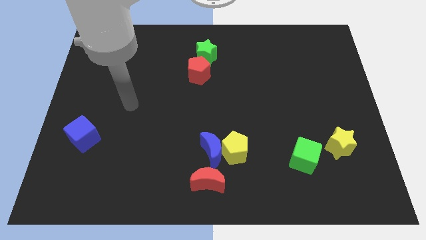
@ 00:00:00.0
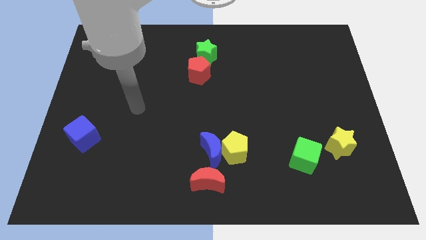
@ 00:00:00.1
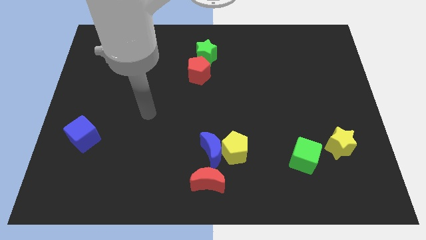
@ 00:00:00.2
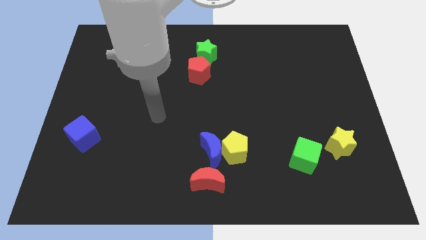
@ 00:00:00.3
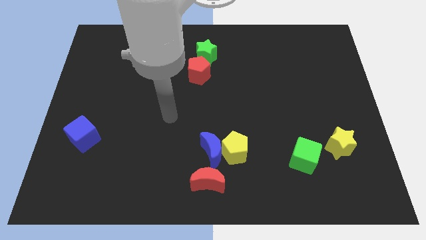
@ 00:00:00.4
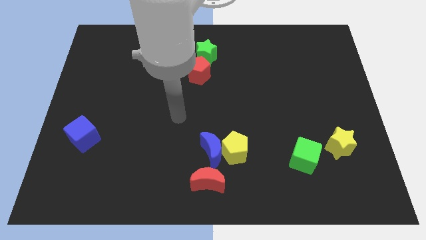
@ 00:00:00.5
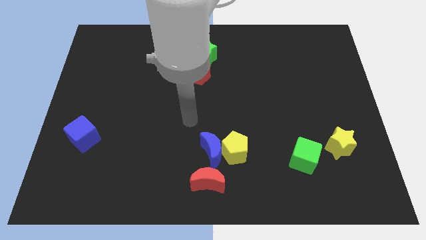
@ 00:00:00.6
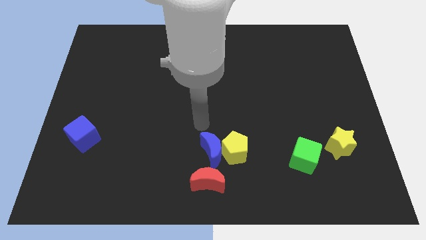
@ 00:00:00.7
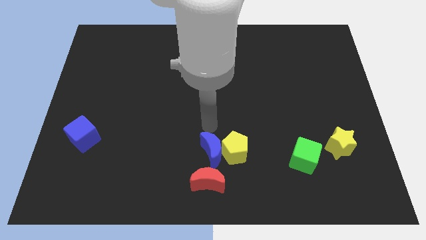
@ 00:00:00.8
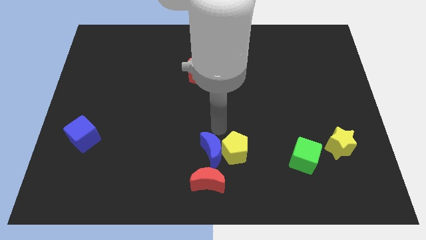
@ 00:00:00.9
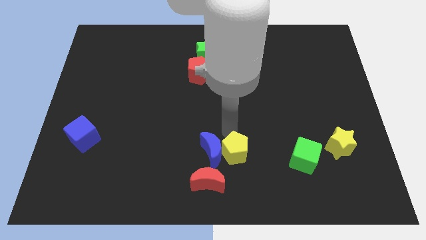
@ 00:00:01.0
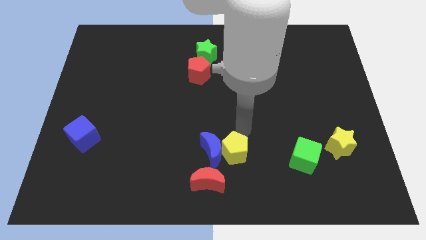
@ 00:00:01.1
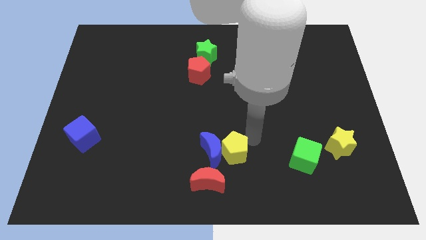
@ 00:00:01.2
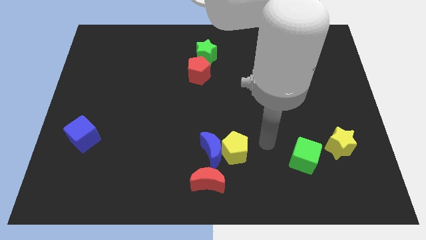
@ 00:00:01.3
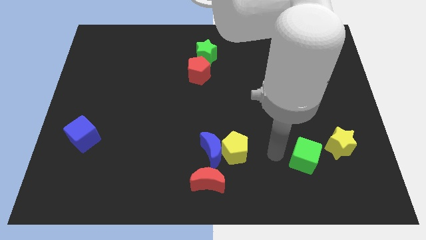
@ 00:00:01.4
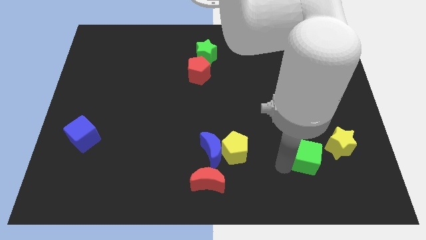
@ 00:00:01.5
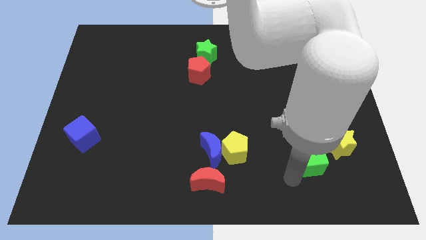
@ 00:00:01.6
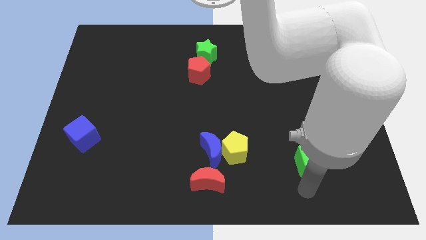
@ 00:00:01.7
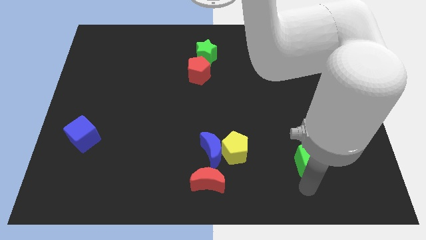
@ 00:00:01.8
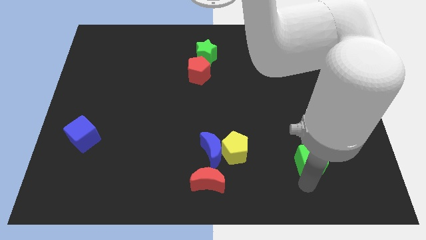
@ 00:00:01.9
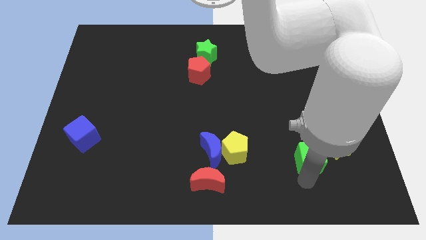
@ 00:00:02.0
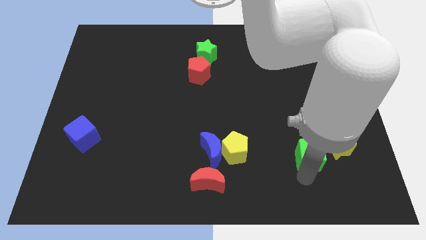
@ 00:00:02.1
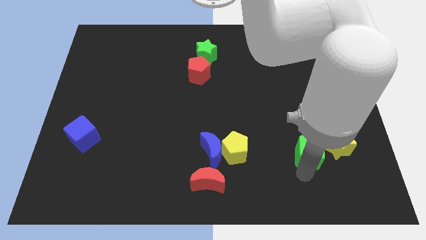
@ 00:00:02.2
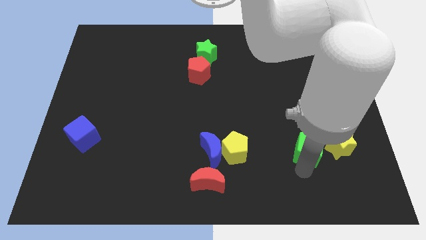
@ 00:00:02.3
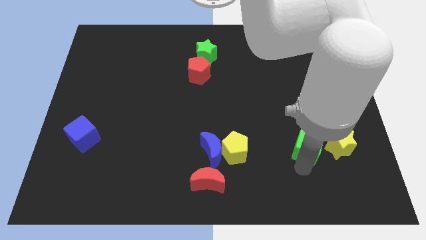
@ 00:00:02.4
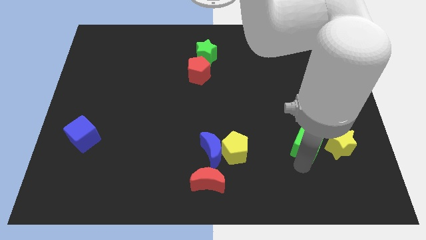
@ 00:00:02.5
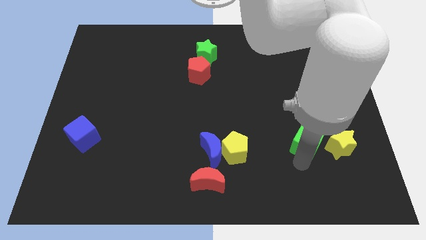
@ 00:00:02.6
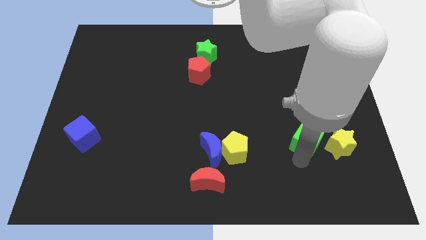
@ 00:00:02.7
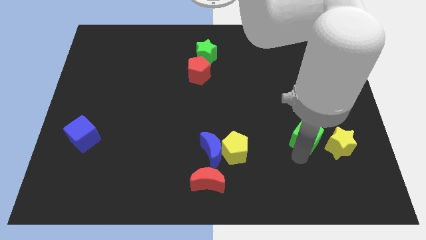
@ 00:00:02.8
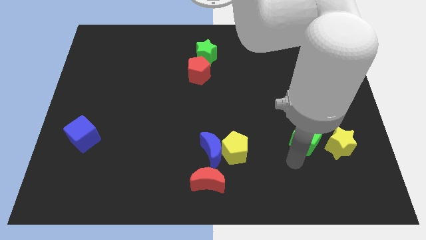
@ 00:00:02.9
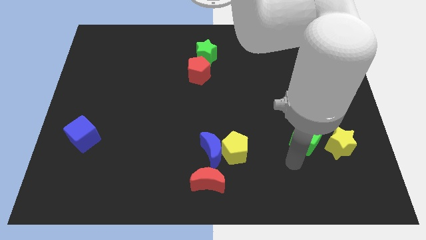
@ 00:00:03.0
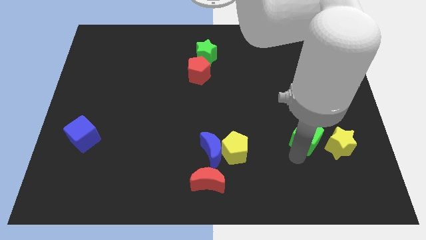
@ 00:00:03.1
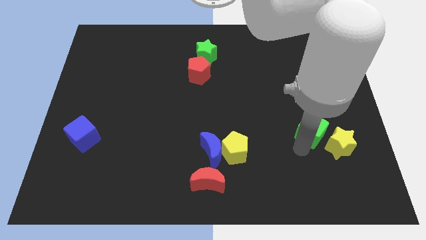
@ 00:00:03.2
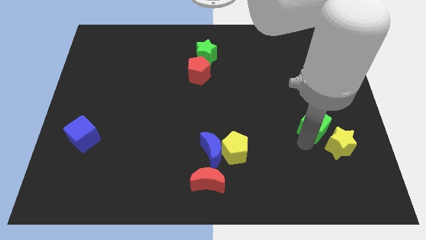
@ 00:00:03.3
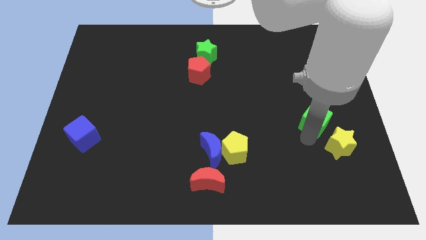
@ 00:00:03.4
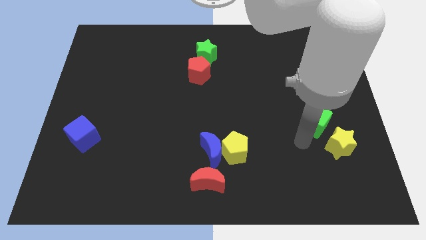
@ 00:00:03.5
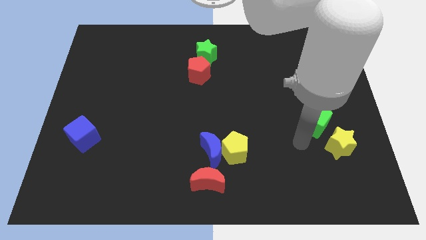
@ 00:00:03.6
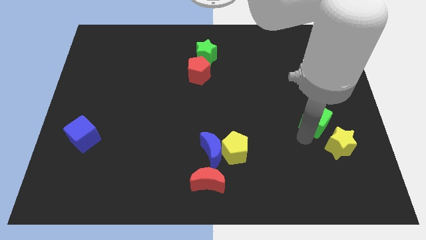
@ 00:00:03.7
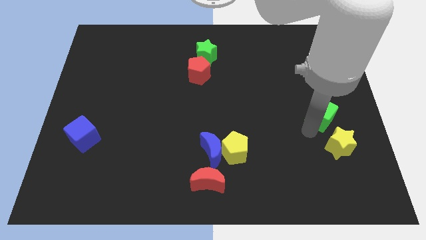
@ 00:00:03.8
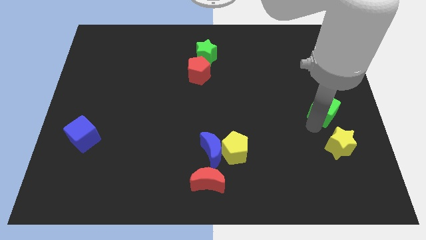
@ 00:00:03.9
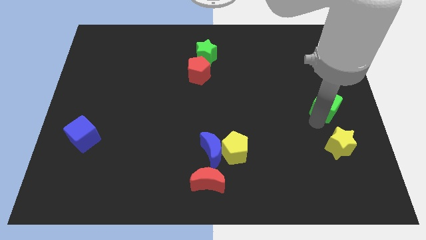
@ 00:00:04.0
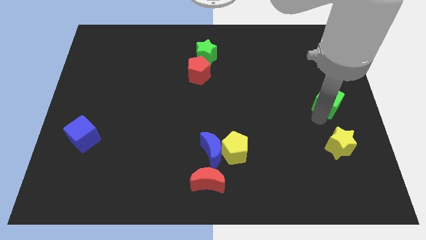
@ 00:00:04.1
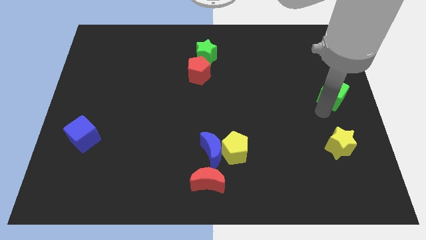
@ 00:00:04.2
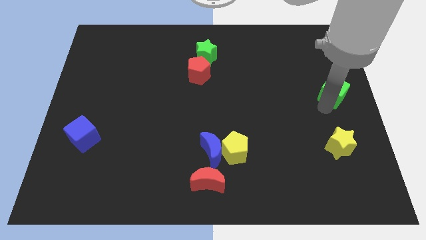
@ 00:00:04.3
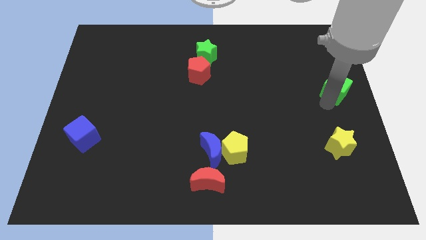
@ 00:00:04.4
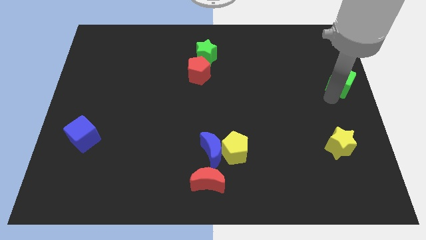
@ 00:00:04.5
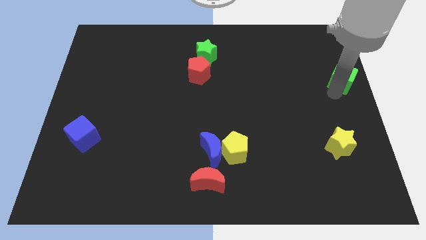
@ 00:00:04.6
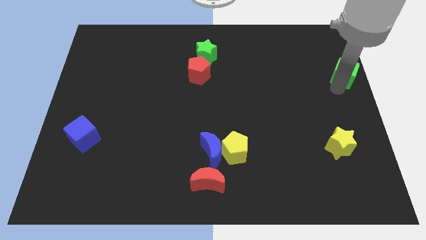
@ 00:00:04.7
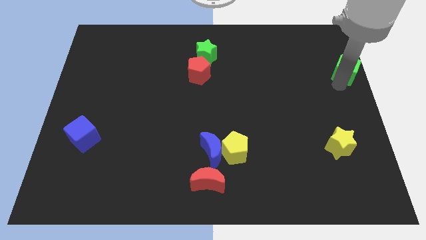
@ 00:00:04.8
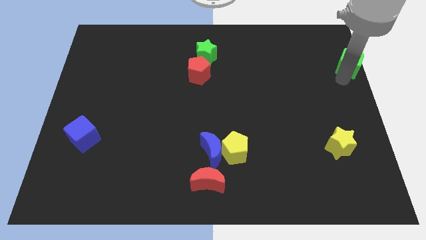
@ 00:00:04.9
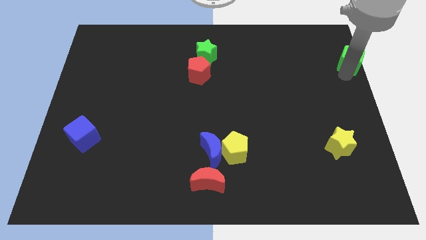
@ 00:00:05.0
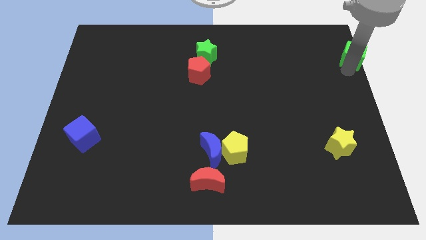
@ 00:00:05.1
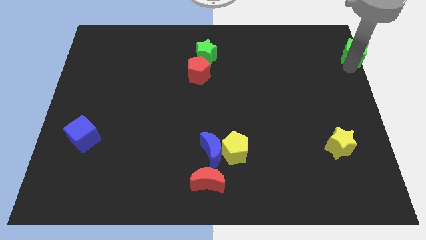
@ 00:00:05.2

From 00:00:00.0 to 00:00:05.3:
slide the green cube to the top right of the board
